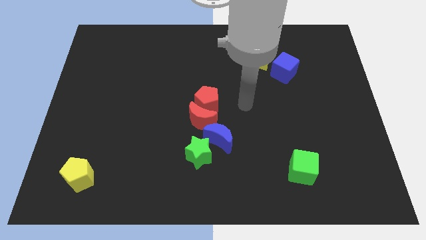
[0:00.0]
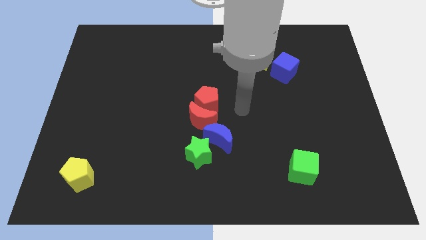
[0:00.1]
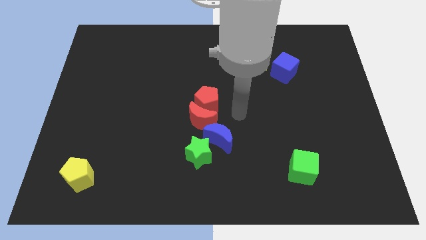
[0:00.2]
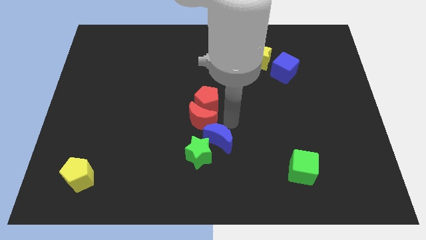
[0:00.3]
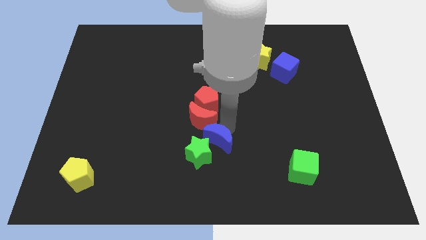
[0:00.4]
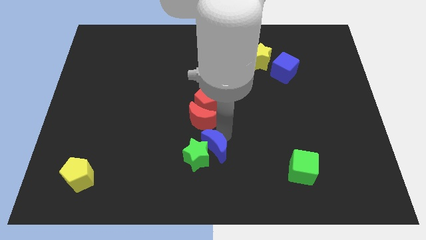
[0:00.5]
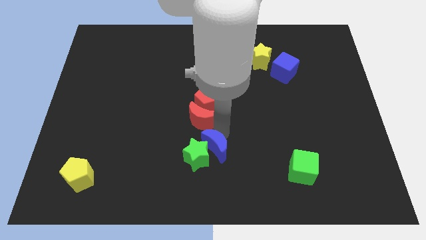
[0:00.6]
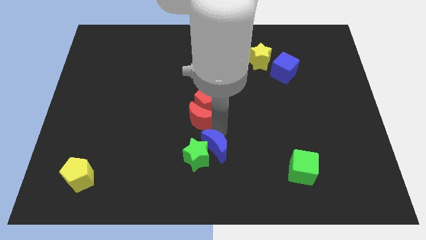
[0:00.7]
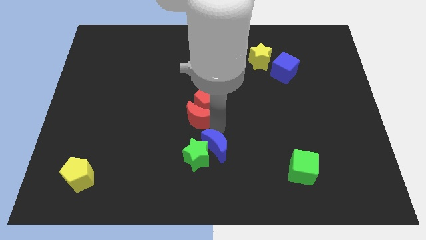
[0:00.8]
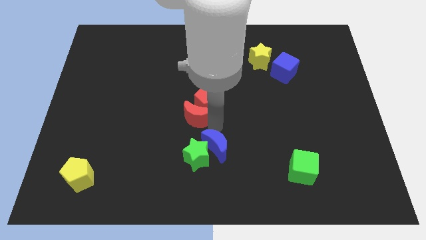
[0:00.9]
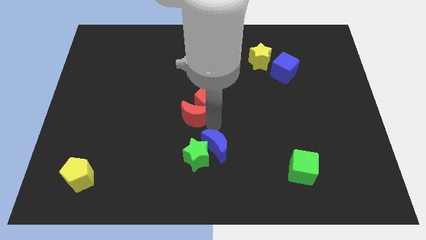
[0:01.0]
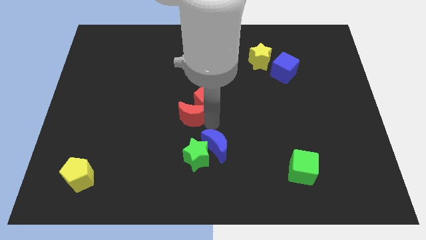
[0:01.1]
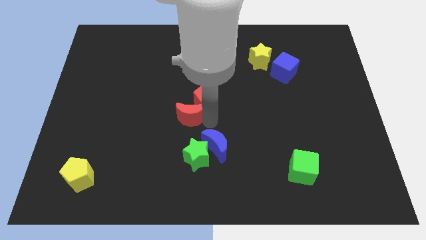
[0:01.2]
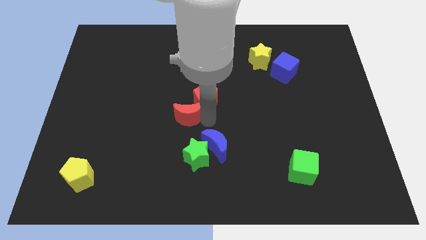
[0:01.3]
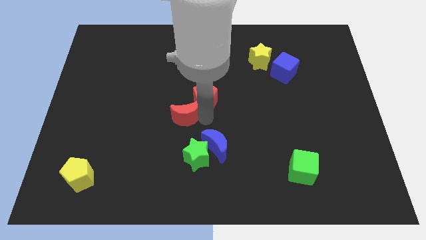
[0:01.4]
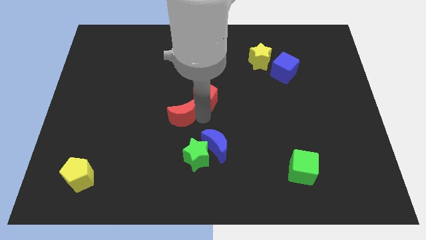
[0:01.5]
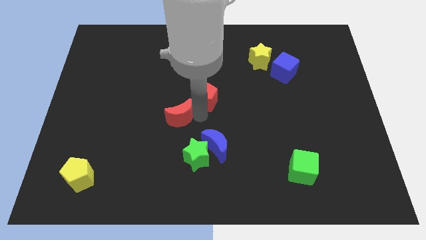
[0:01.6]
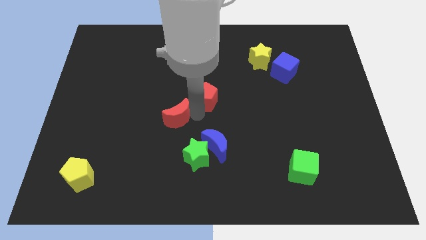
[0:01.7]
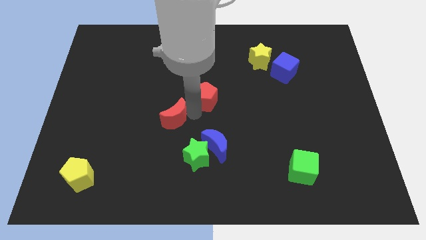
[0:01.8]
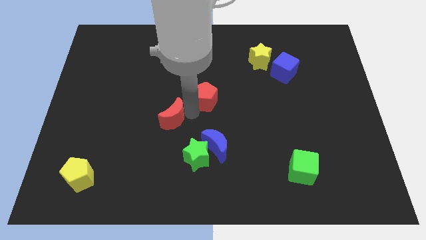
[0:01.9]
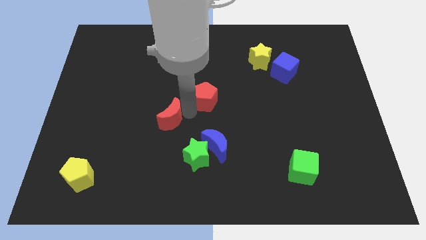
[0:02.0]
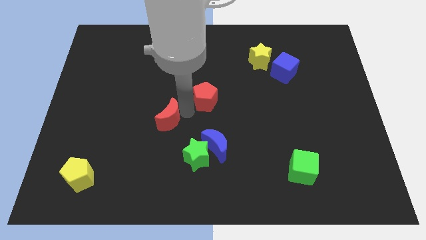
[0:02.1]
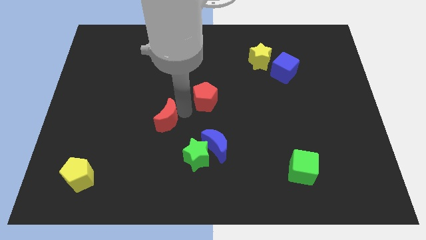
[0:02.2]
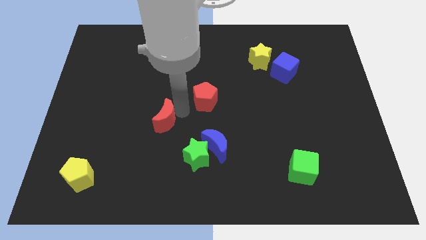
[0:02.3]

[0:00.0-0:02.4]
separate the red moon from the group

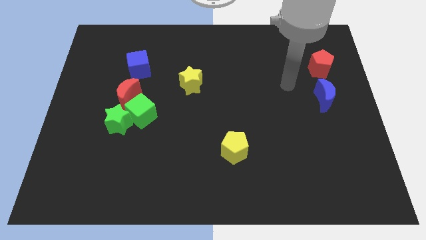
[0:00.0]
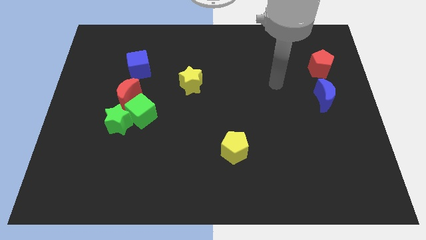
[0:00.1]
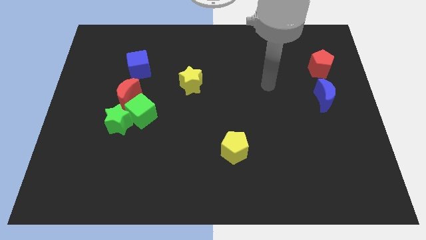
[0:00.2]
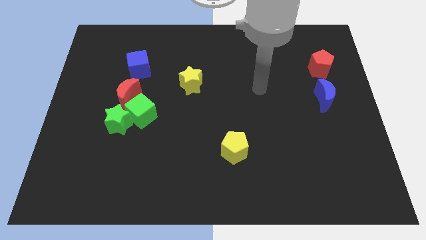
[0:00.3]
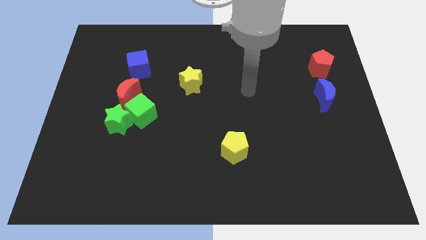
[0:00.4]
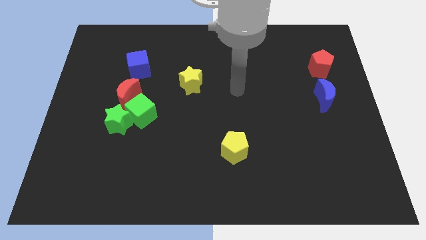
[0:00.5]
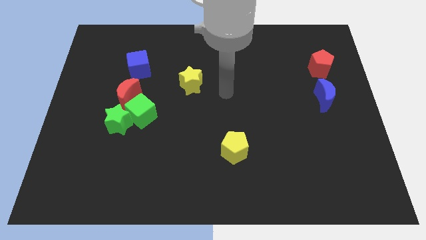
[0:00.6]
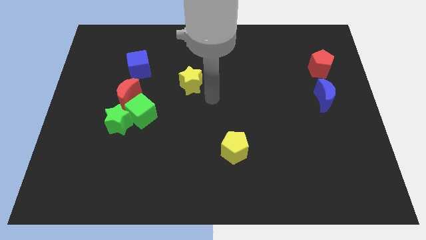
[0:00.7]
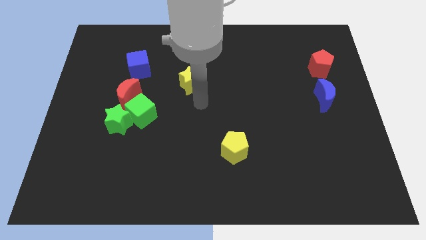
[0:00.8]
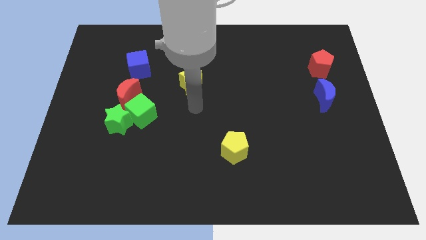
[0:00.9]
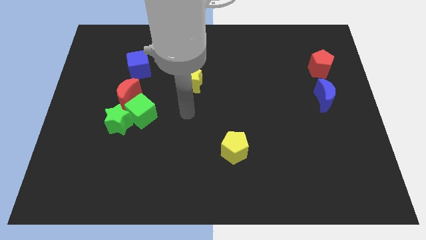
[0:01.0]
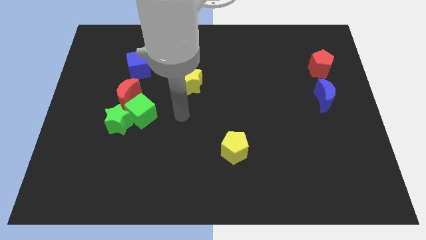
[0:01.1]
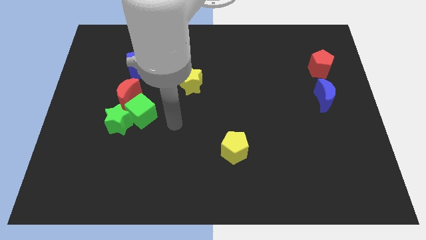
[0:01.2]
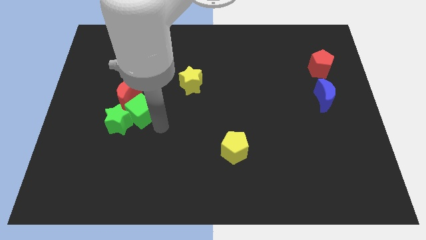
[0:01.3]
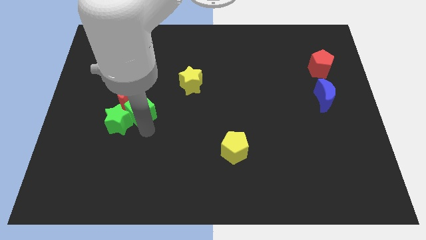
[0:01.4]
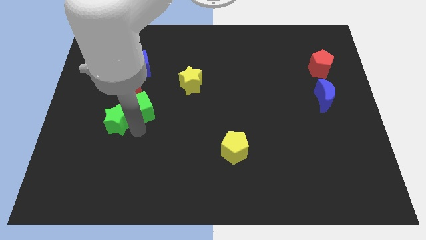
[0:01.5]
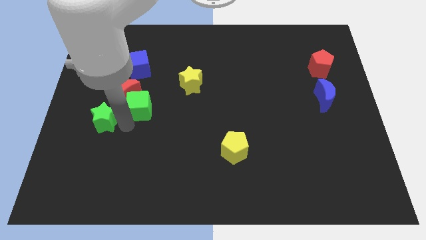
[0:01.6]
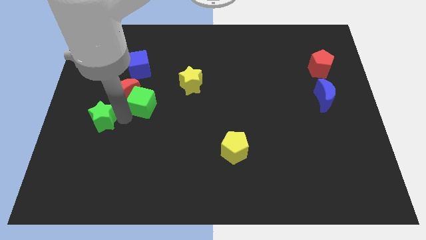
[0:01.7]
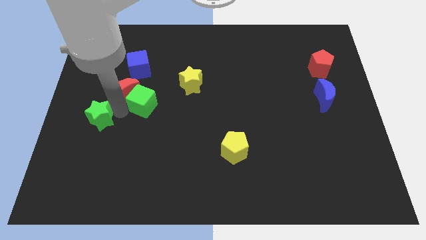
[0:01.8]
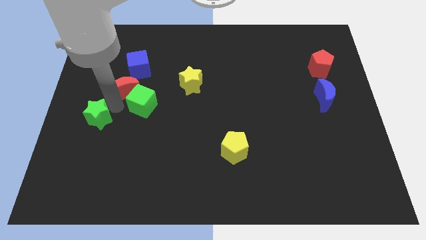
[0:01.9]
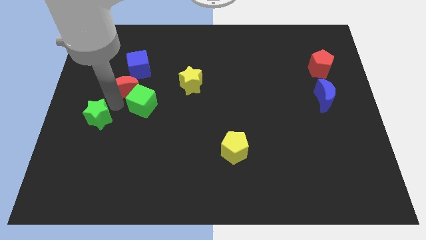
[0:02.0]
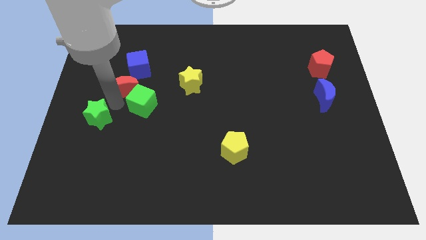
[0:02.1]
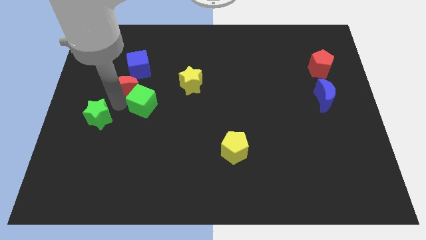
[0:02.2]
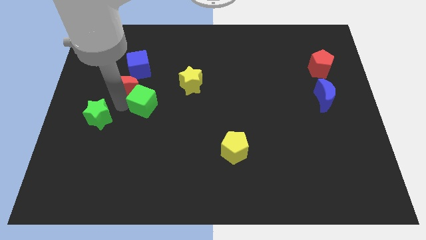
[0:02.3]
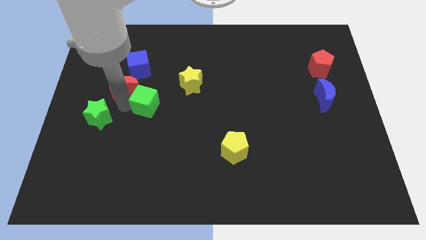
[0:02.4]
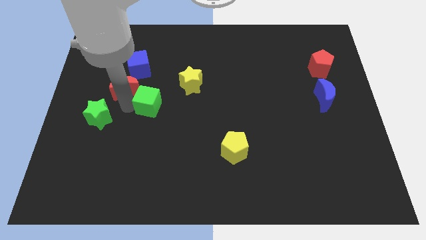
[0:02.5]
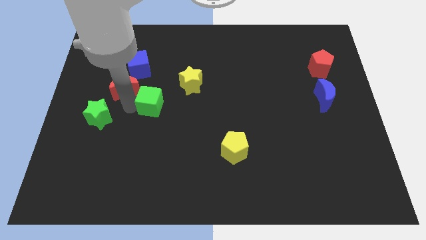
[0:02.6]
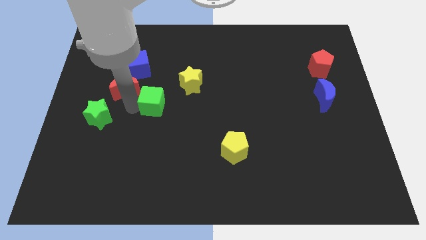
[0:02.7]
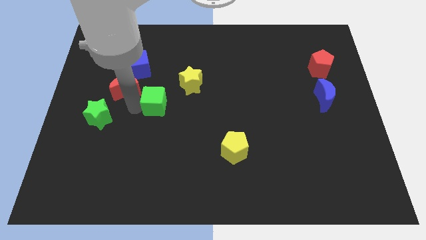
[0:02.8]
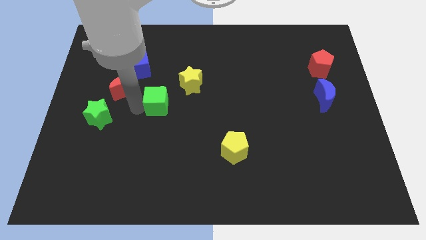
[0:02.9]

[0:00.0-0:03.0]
pull the green cube apart from the green star and red moon

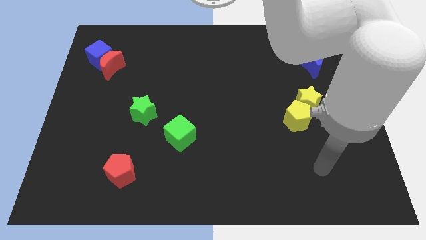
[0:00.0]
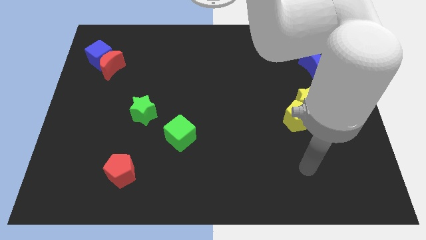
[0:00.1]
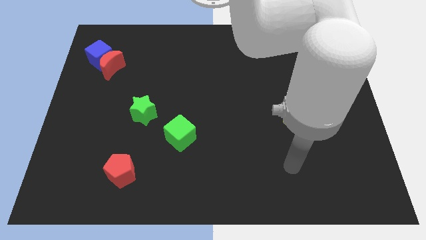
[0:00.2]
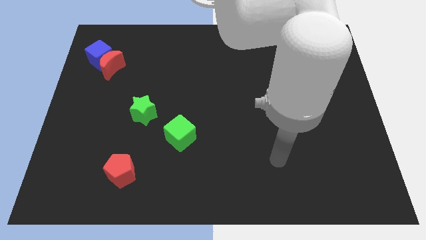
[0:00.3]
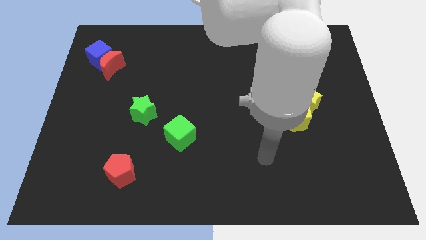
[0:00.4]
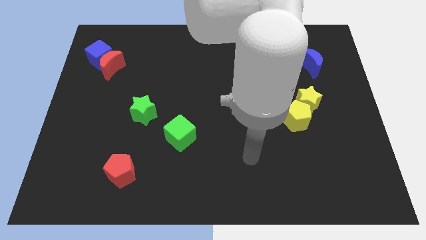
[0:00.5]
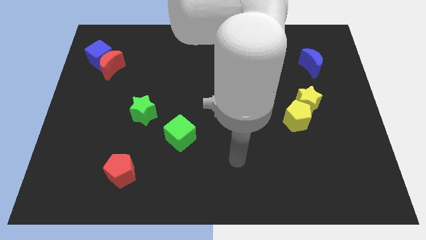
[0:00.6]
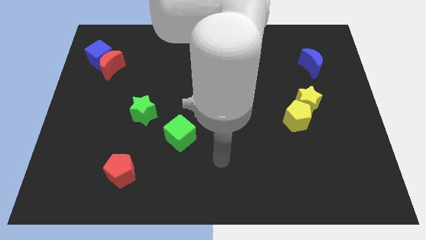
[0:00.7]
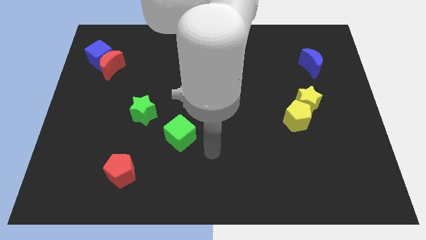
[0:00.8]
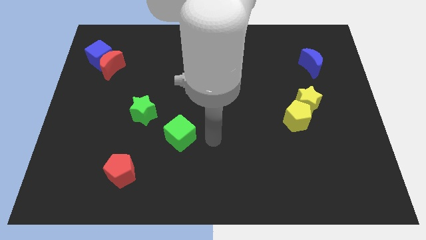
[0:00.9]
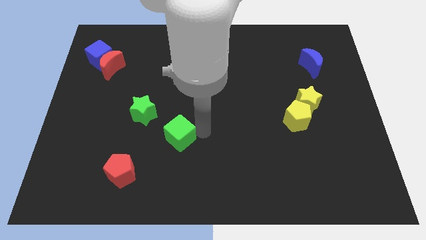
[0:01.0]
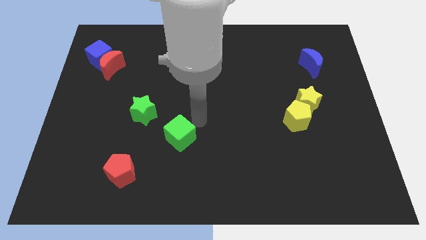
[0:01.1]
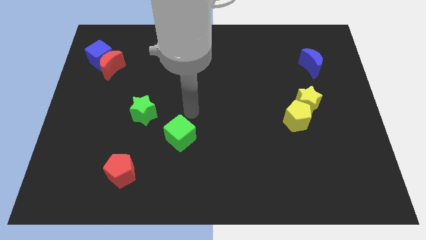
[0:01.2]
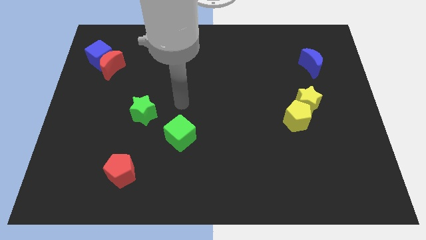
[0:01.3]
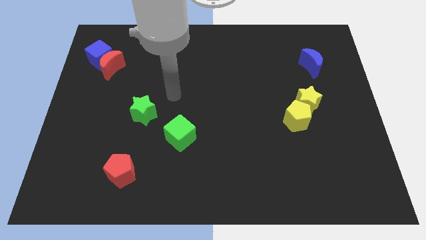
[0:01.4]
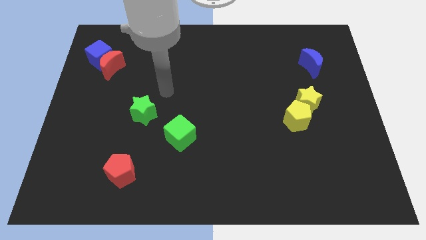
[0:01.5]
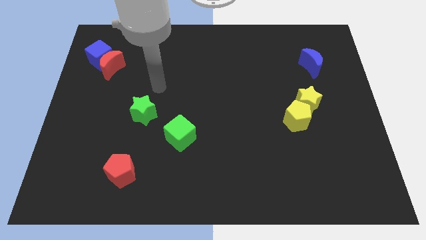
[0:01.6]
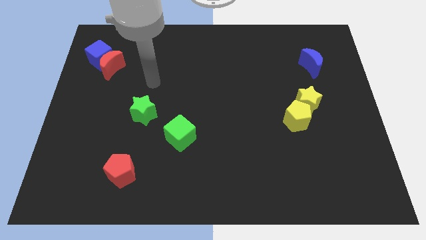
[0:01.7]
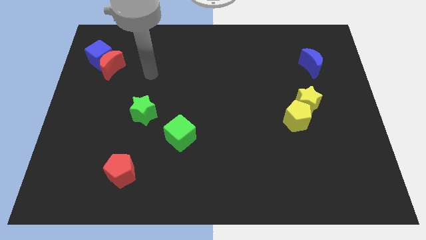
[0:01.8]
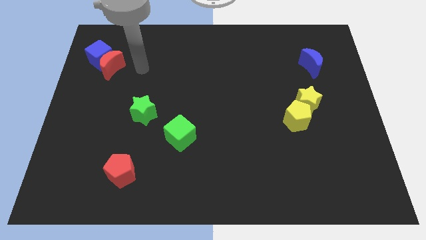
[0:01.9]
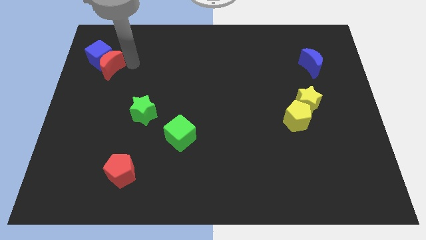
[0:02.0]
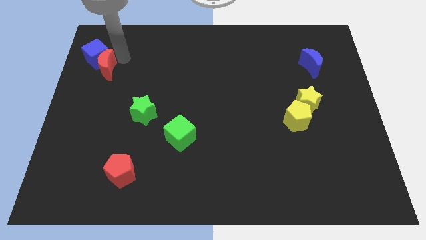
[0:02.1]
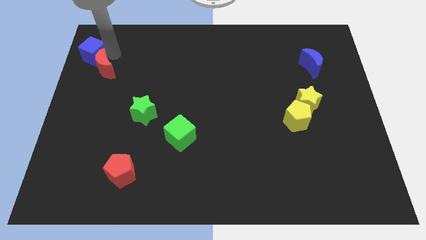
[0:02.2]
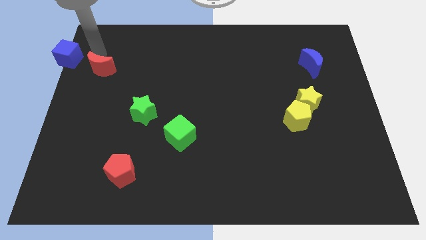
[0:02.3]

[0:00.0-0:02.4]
pull the red moon apart from the blue cube

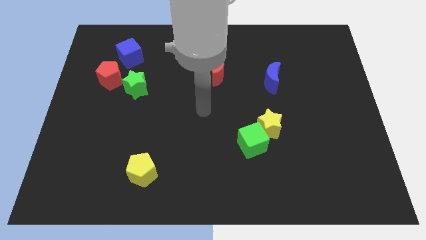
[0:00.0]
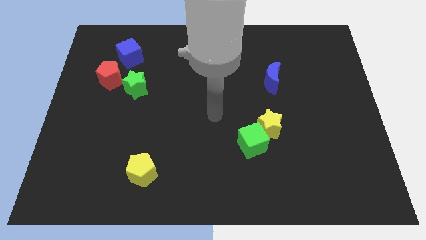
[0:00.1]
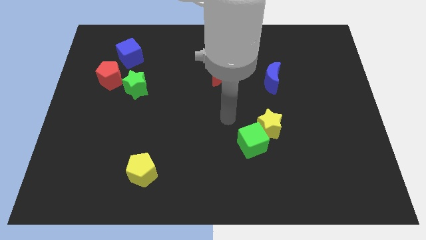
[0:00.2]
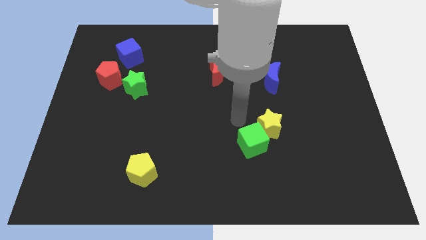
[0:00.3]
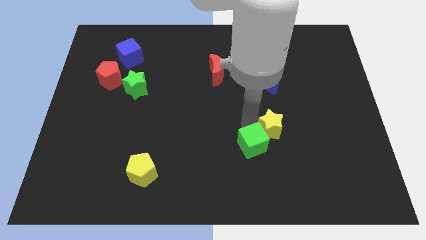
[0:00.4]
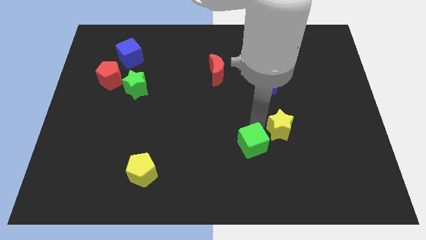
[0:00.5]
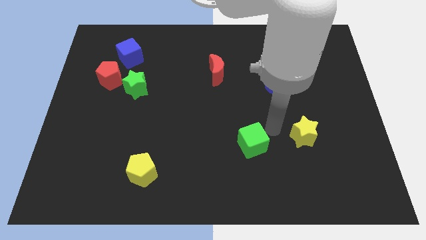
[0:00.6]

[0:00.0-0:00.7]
pull the green cube apart from the yellow star

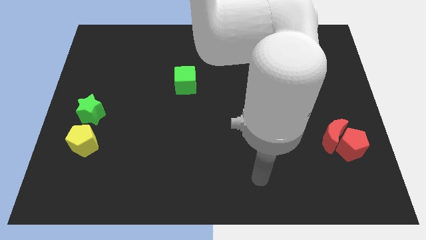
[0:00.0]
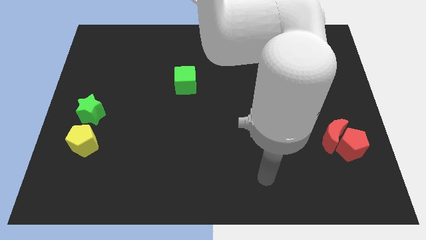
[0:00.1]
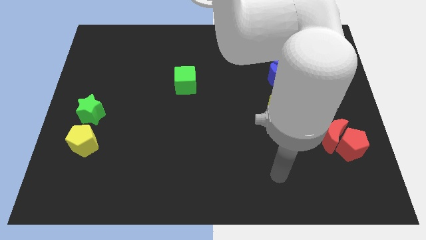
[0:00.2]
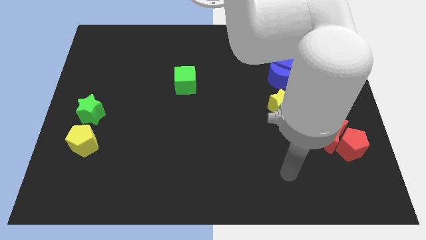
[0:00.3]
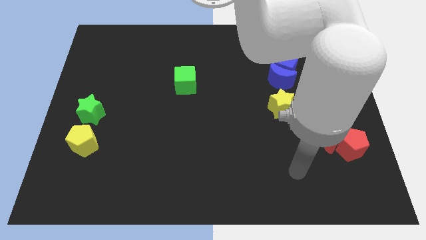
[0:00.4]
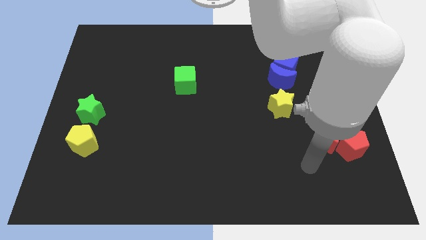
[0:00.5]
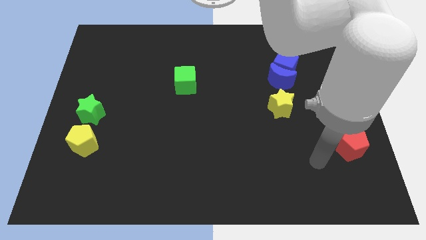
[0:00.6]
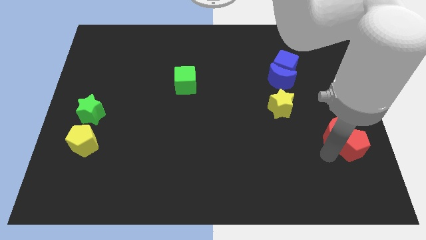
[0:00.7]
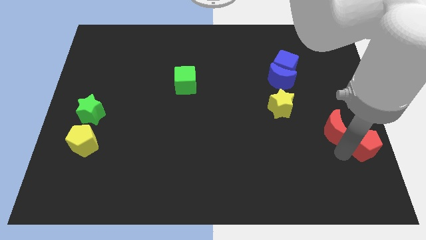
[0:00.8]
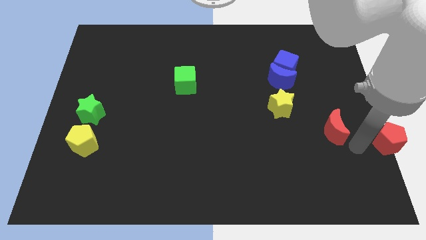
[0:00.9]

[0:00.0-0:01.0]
separate the red moon from the red pentagon
